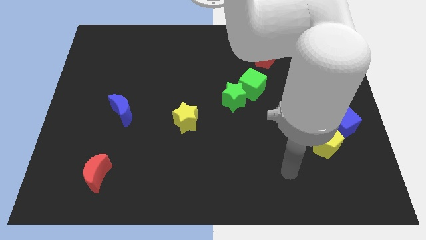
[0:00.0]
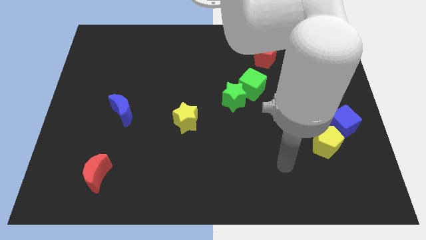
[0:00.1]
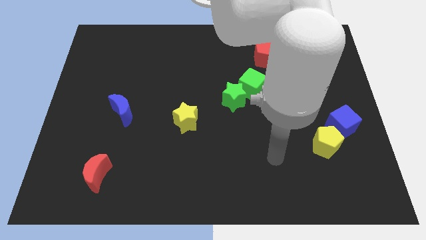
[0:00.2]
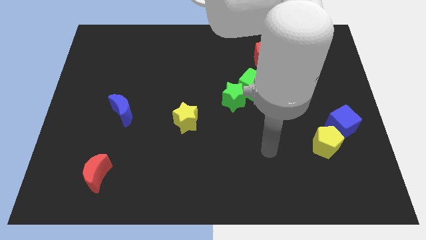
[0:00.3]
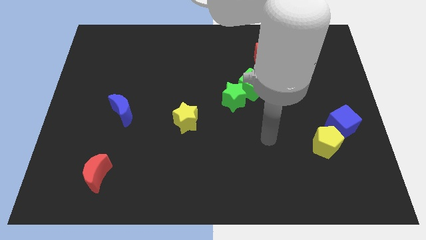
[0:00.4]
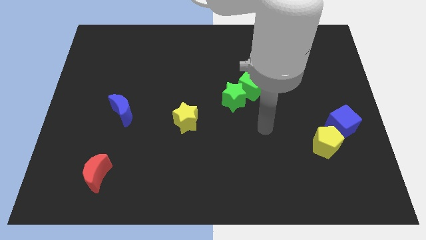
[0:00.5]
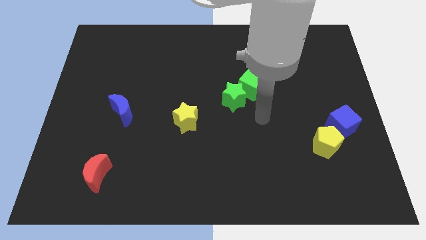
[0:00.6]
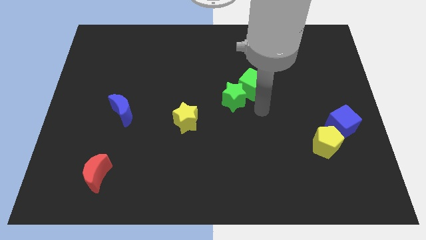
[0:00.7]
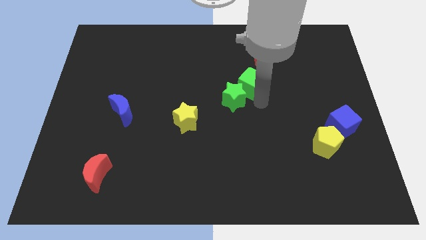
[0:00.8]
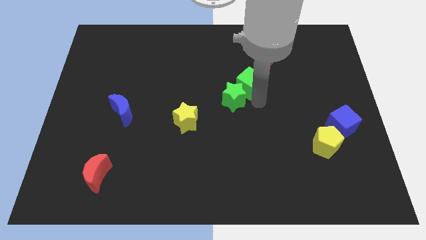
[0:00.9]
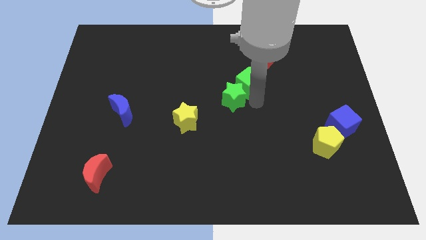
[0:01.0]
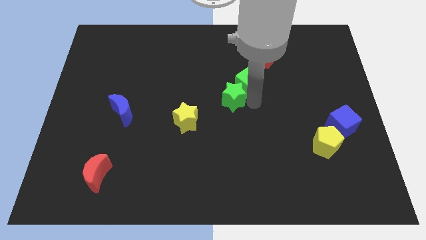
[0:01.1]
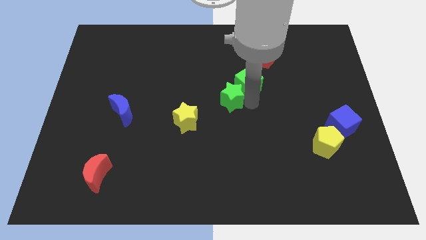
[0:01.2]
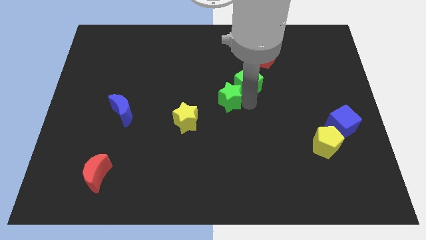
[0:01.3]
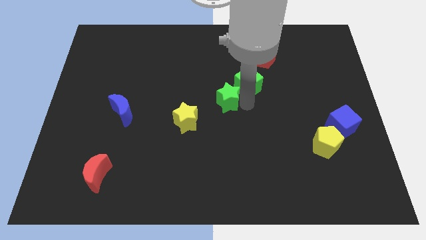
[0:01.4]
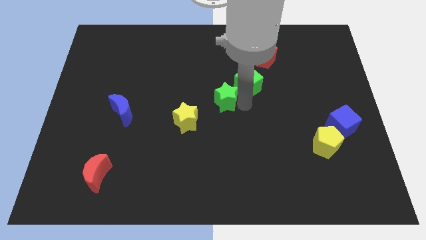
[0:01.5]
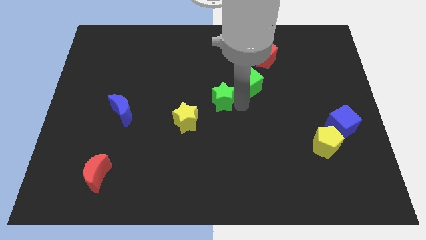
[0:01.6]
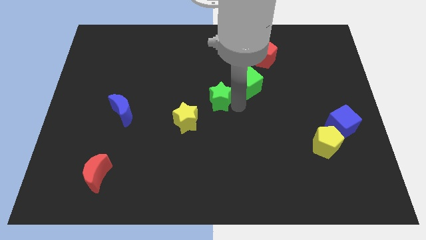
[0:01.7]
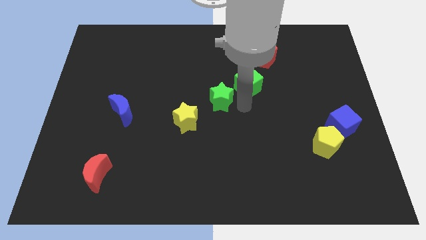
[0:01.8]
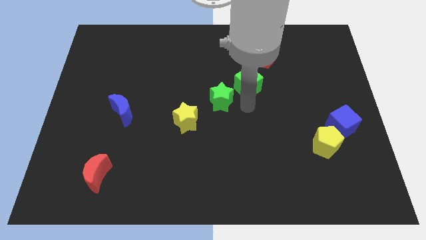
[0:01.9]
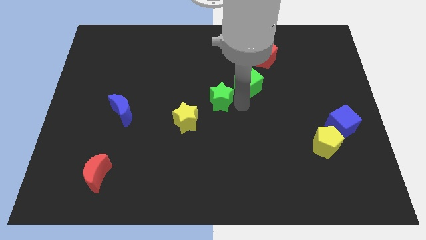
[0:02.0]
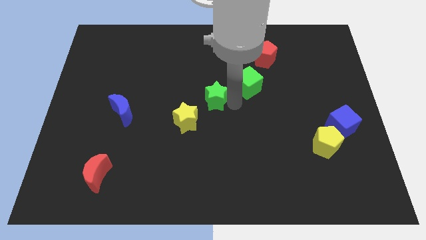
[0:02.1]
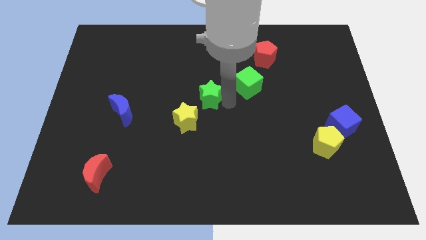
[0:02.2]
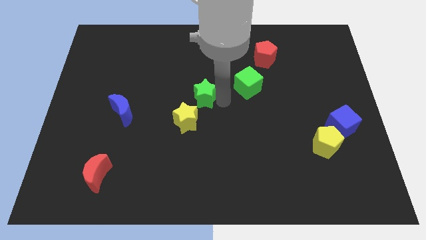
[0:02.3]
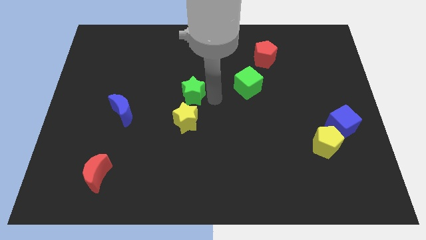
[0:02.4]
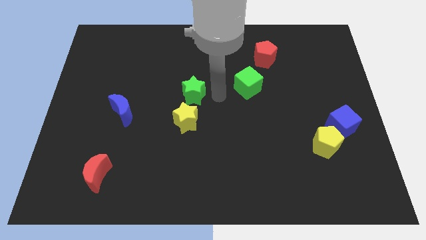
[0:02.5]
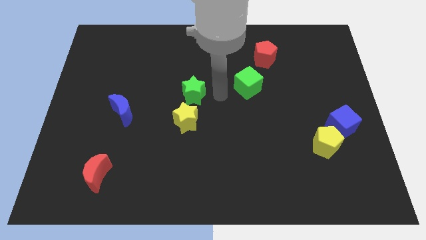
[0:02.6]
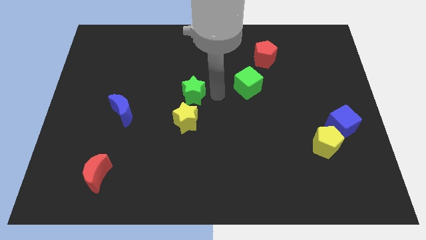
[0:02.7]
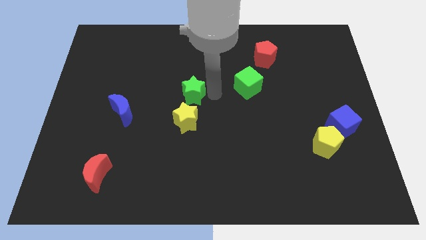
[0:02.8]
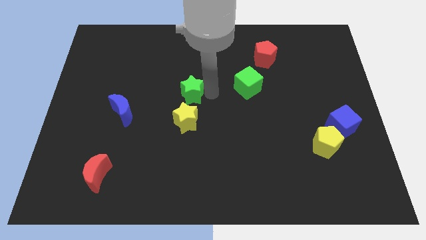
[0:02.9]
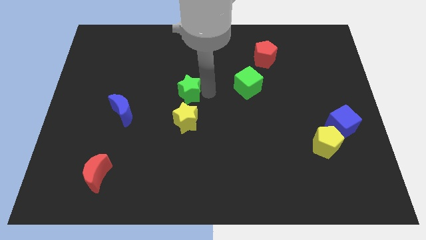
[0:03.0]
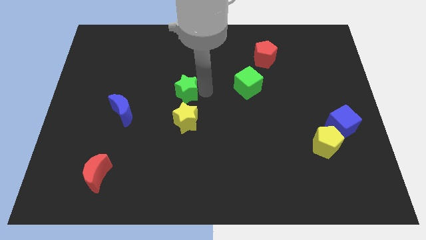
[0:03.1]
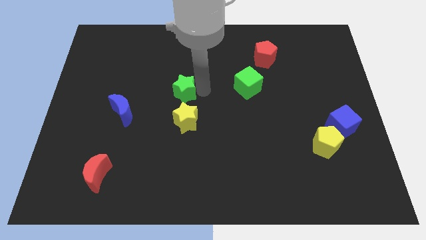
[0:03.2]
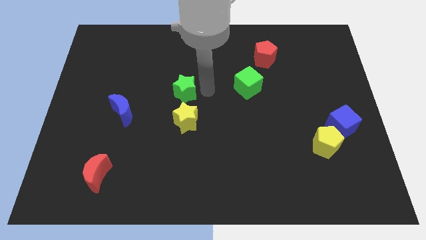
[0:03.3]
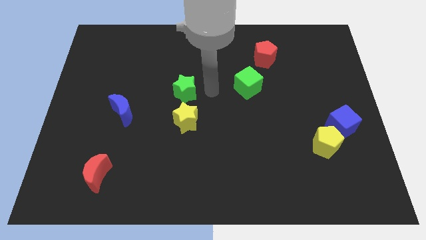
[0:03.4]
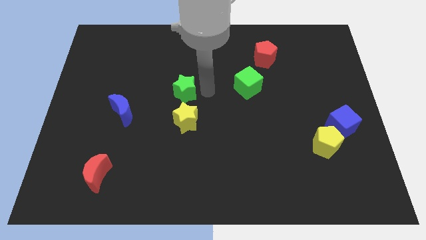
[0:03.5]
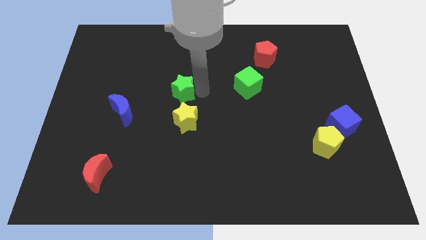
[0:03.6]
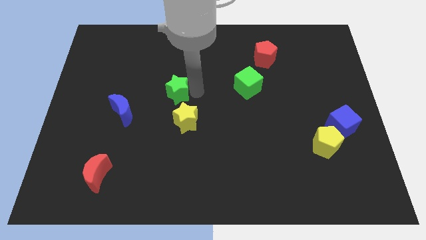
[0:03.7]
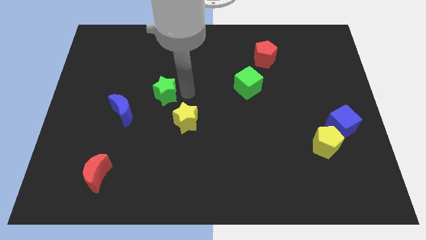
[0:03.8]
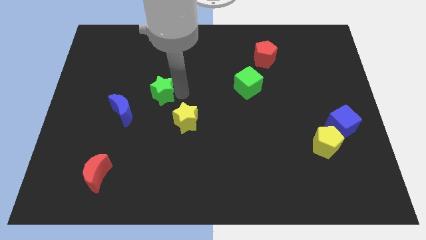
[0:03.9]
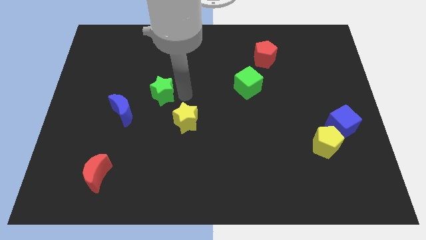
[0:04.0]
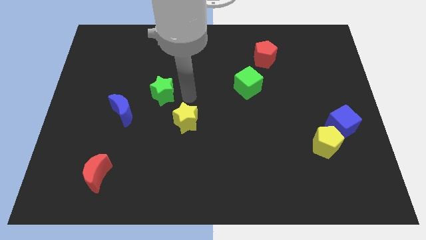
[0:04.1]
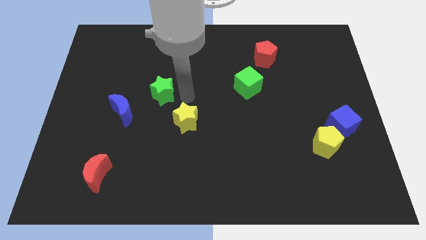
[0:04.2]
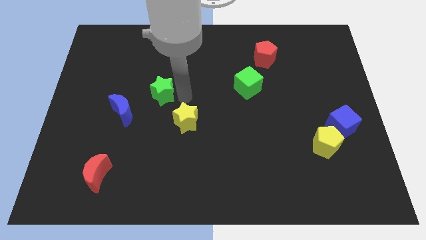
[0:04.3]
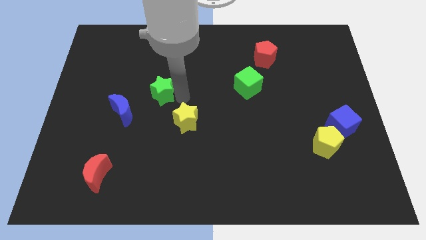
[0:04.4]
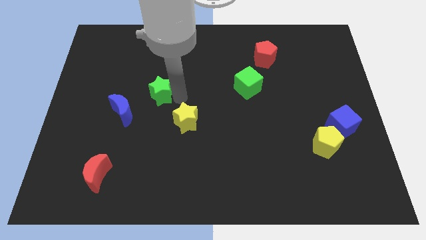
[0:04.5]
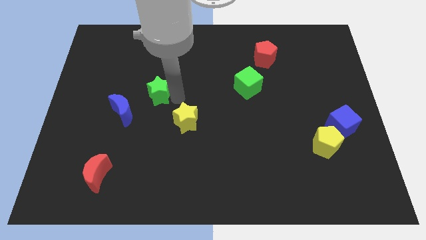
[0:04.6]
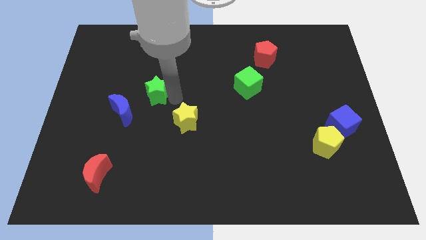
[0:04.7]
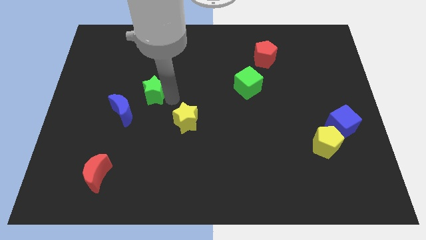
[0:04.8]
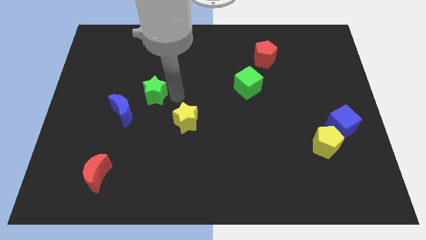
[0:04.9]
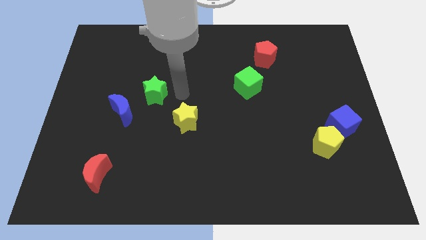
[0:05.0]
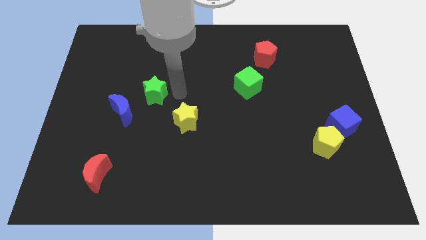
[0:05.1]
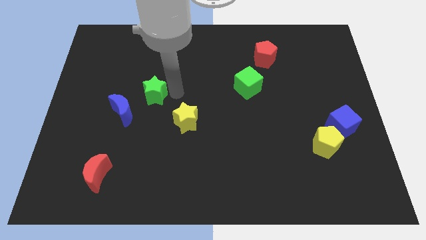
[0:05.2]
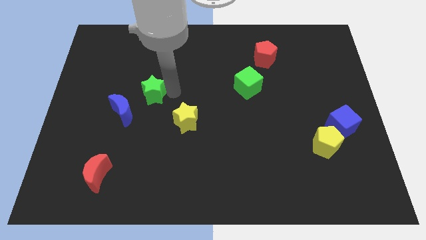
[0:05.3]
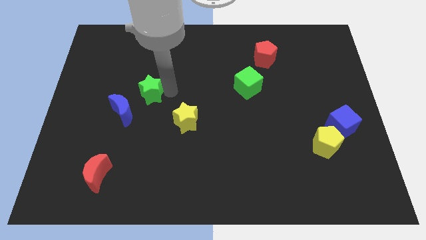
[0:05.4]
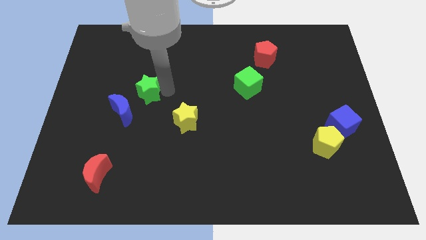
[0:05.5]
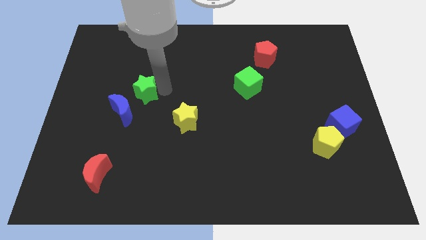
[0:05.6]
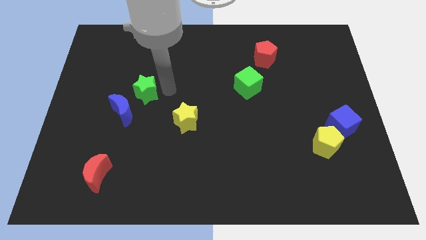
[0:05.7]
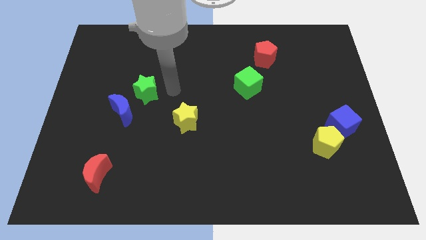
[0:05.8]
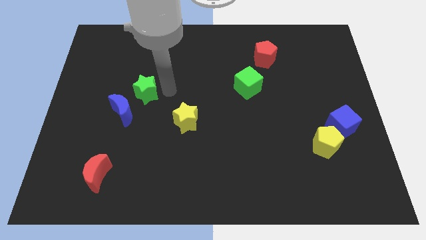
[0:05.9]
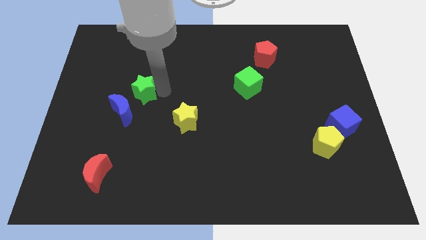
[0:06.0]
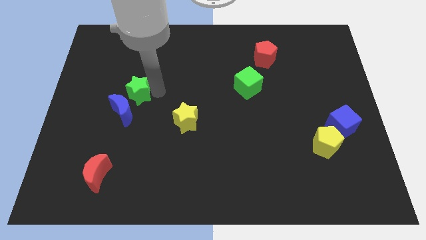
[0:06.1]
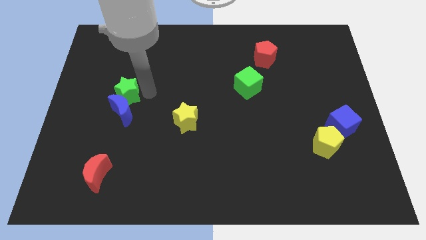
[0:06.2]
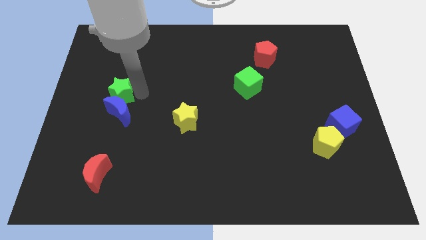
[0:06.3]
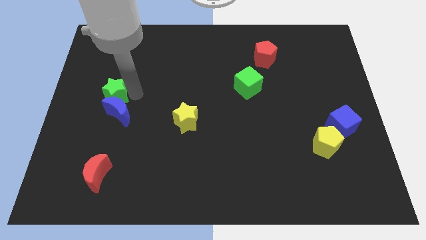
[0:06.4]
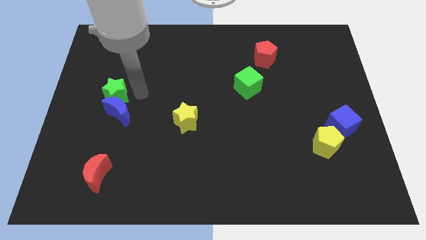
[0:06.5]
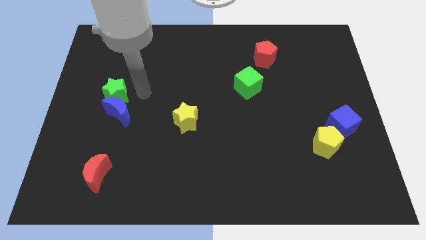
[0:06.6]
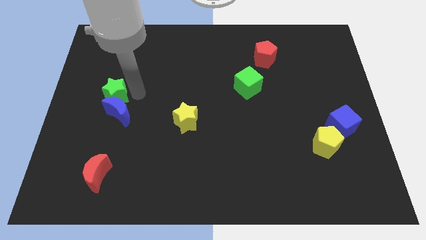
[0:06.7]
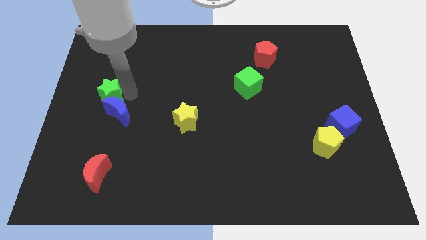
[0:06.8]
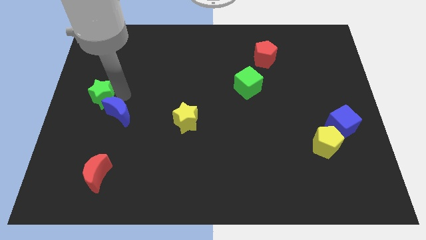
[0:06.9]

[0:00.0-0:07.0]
push the green star to the left side of the board
